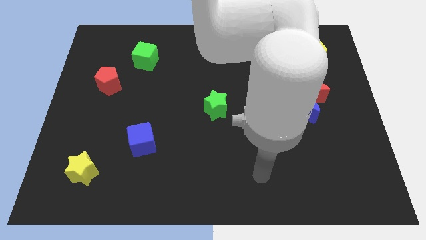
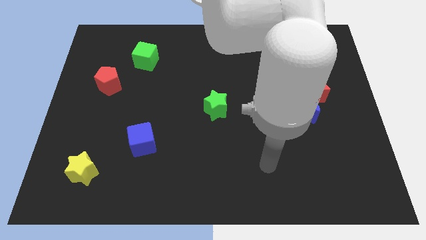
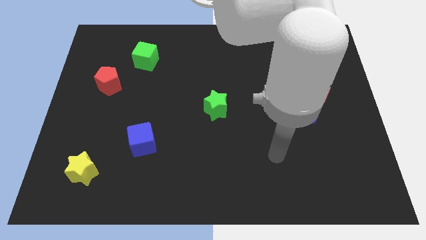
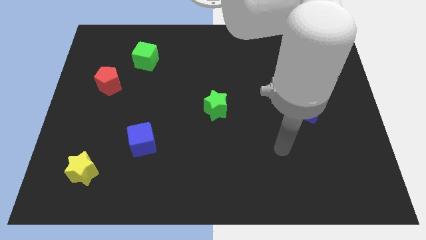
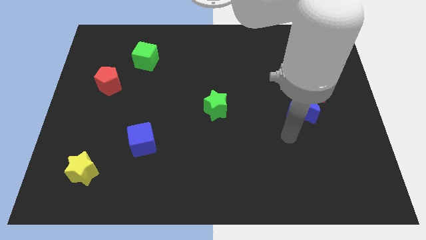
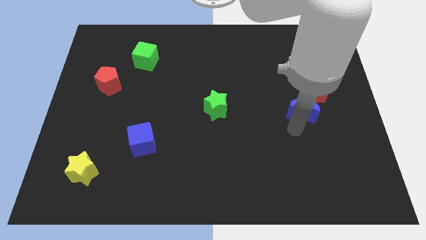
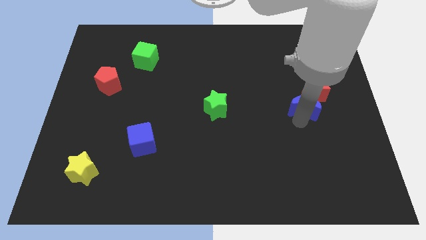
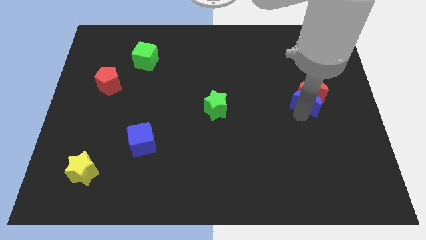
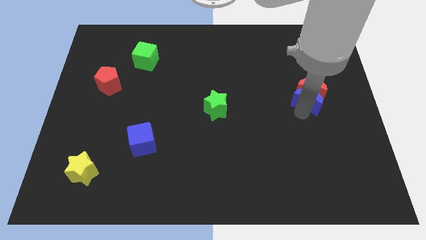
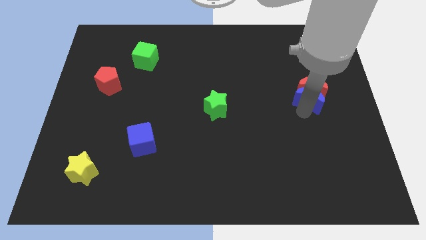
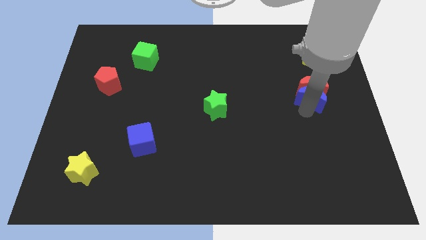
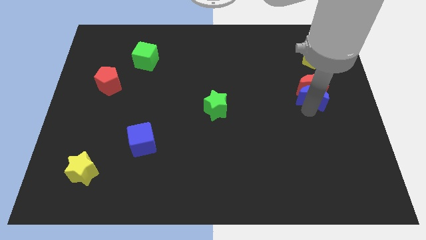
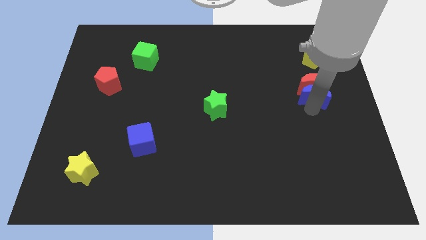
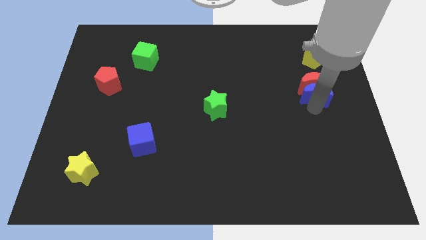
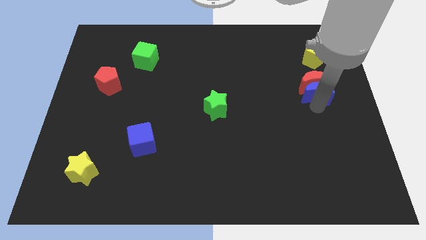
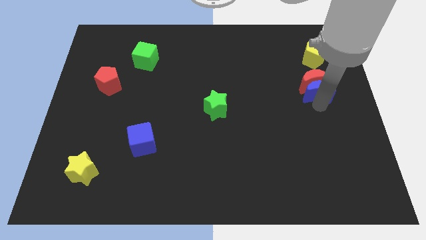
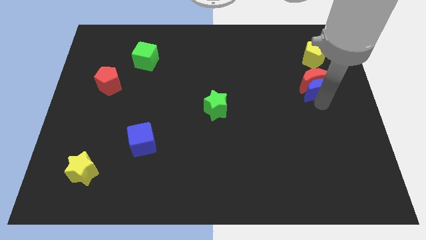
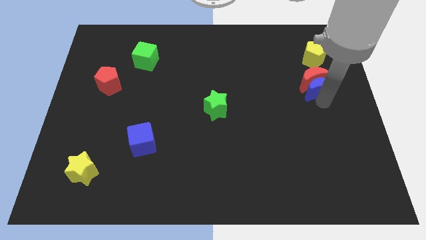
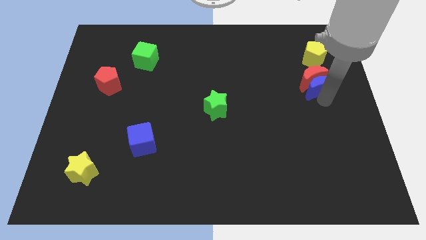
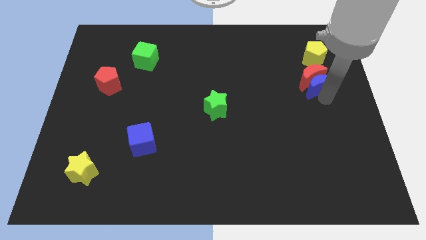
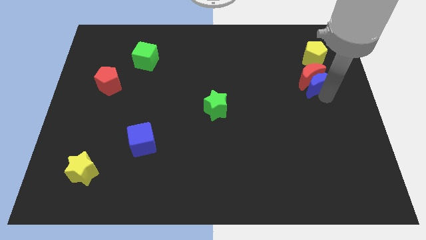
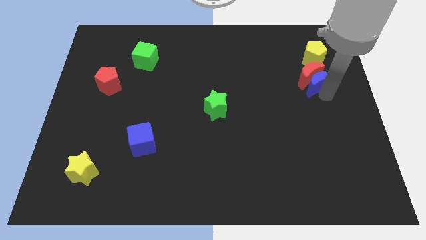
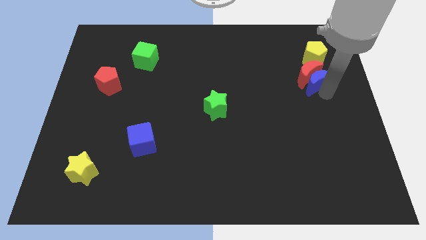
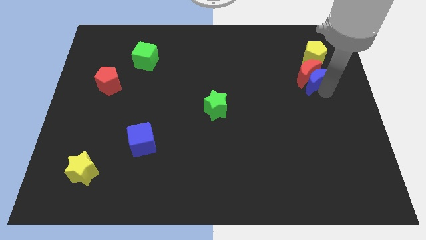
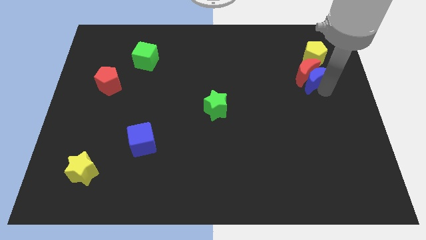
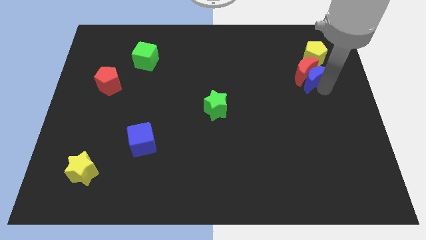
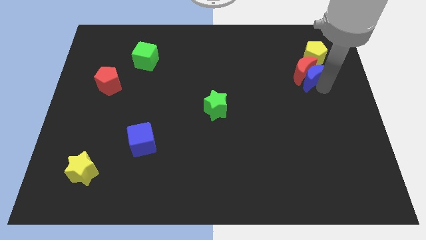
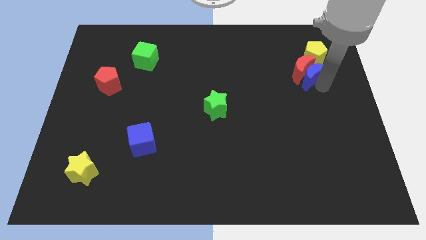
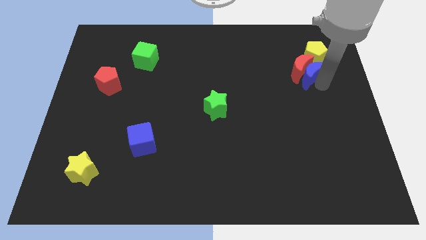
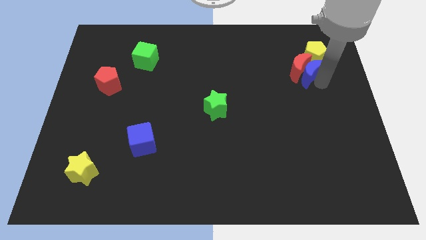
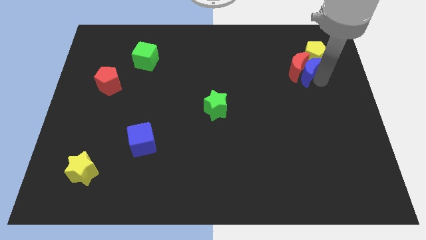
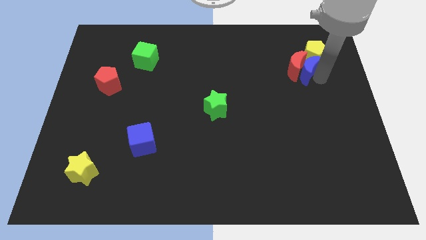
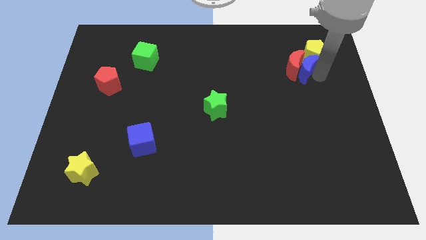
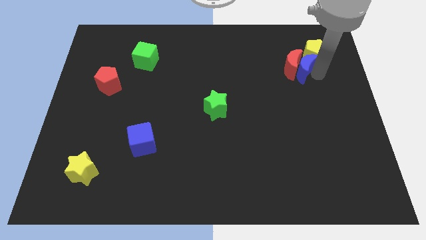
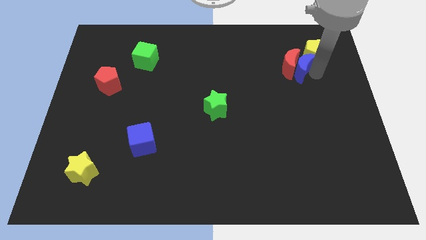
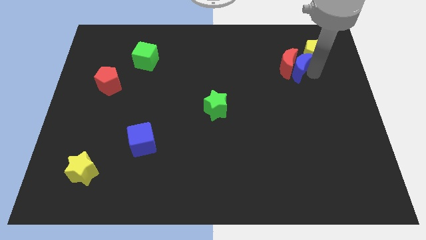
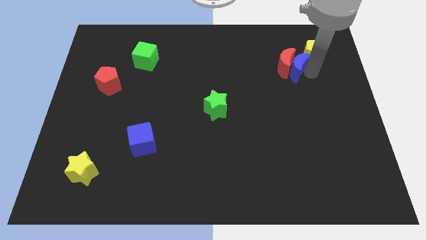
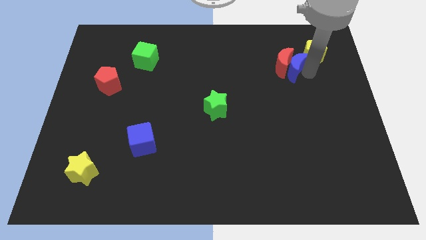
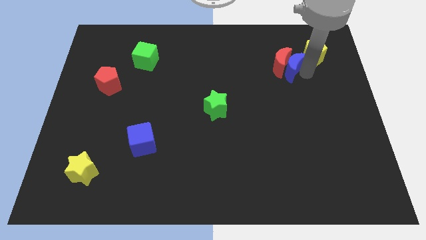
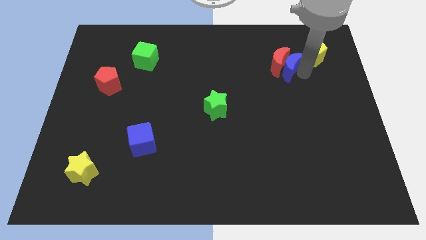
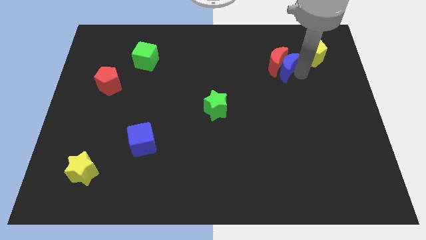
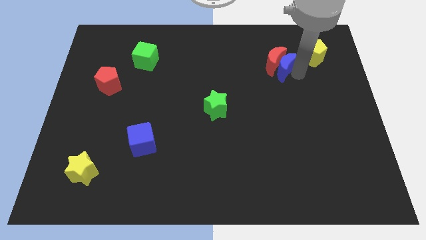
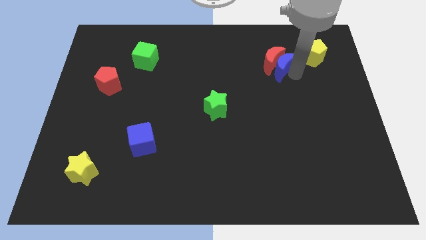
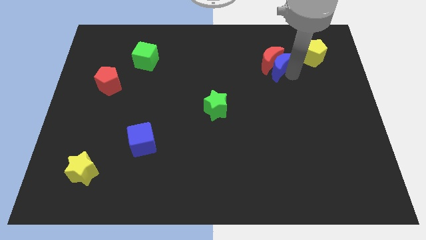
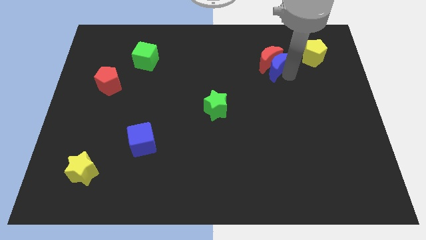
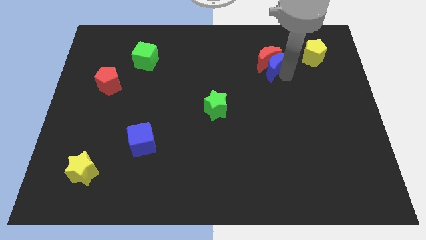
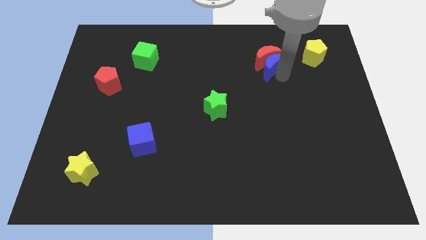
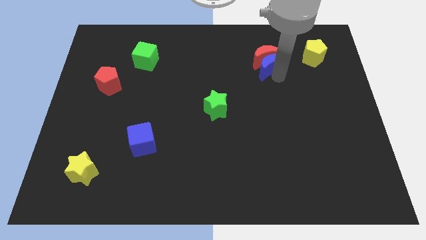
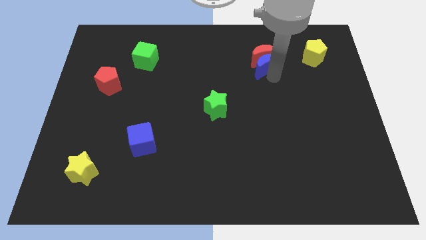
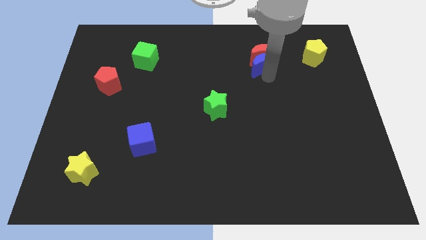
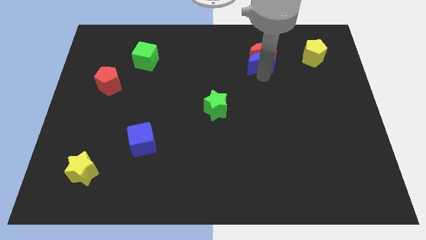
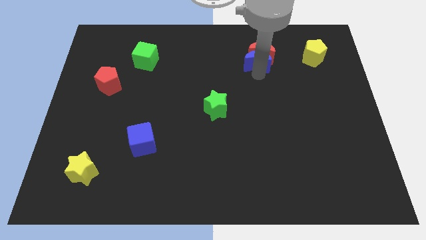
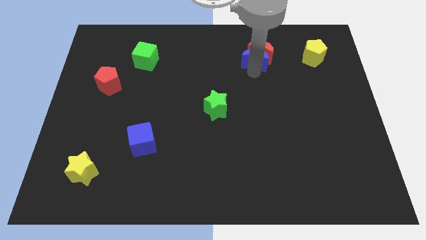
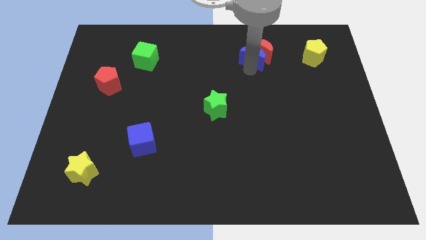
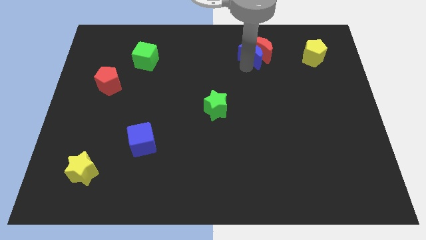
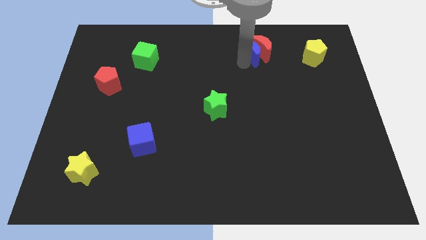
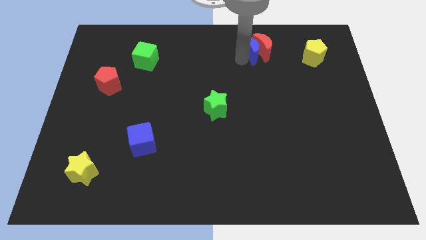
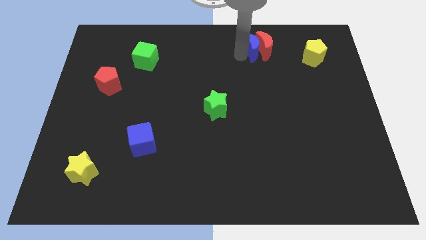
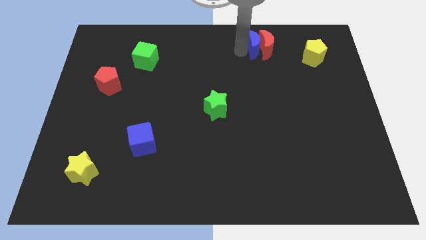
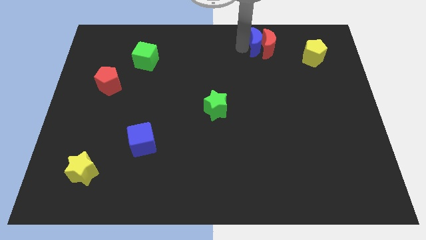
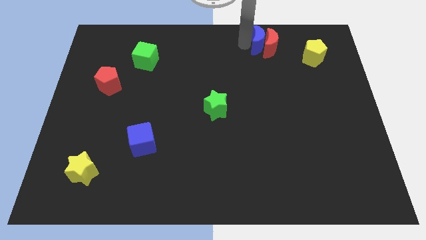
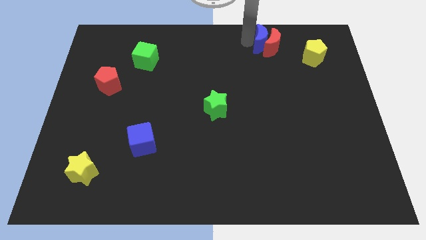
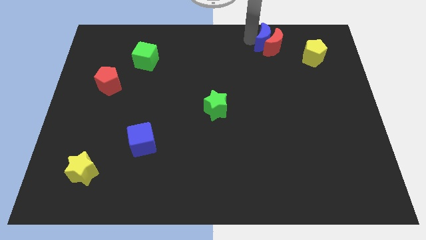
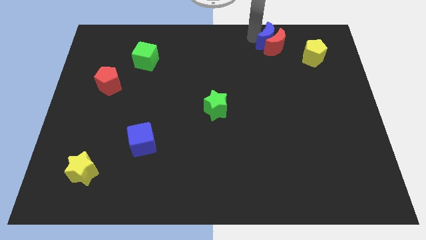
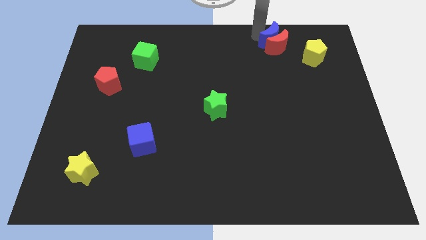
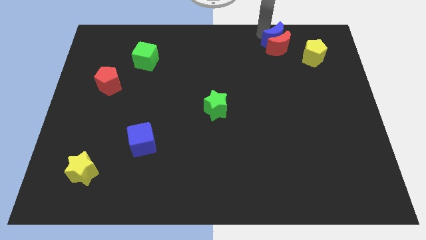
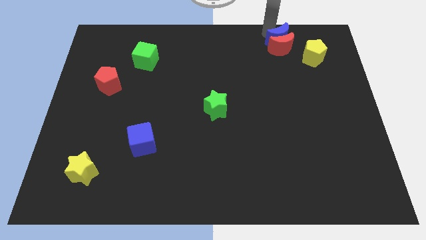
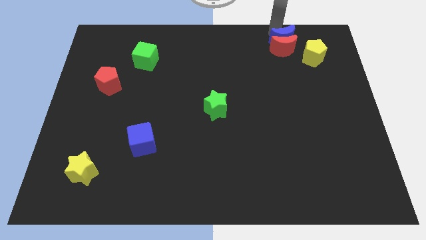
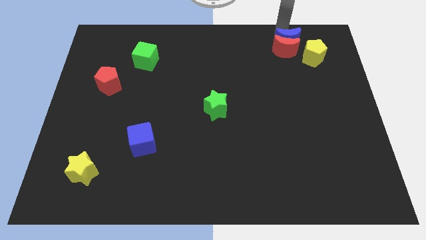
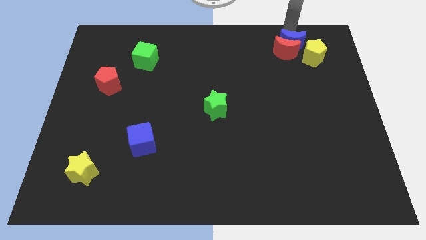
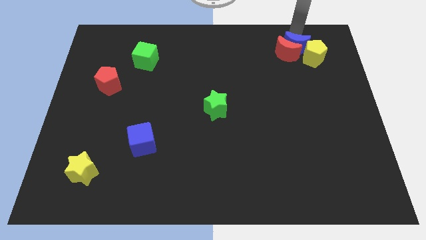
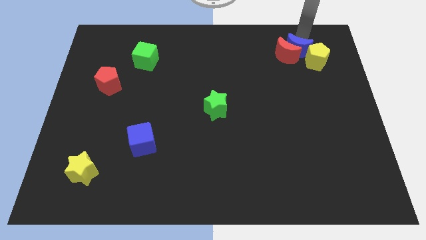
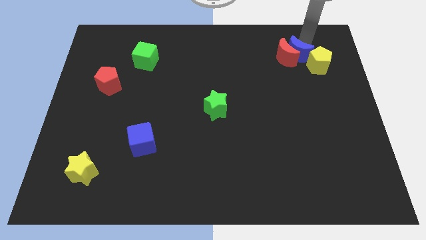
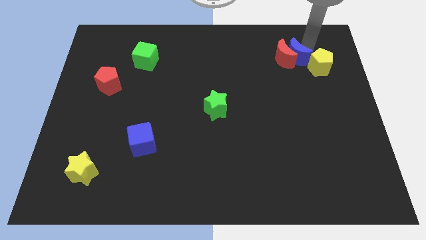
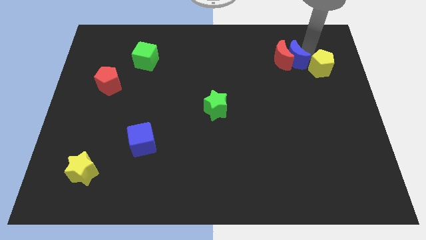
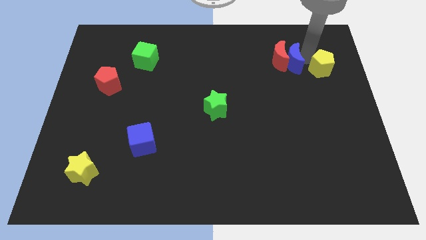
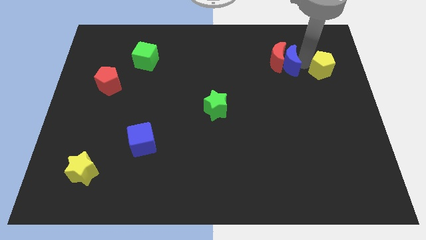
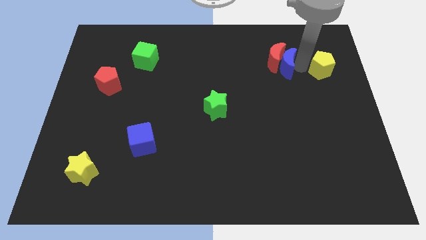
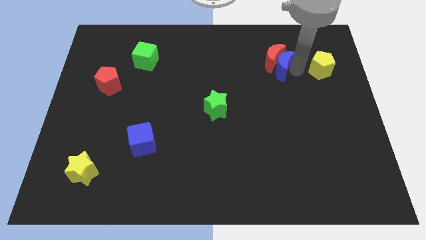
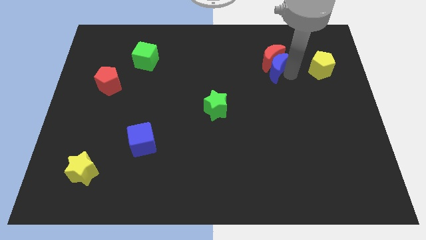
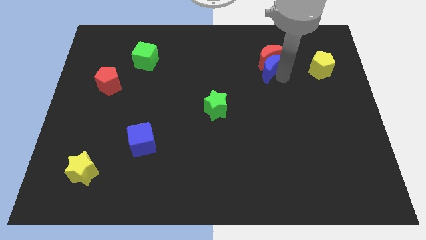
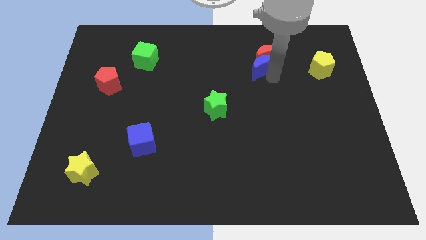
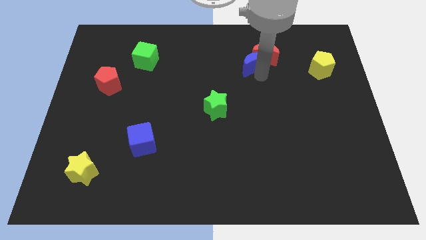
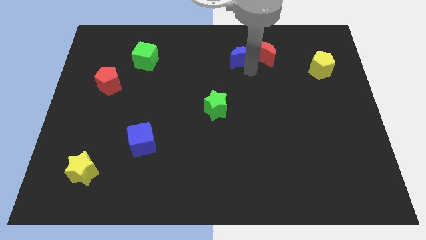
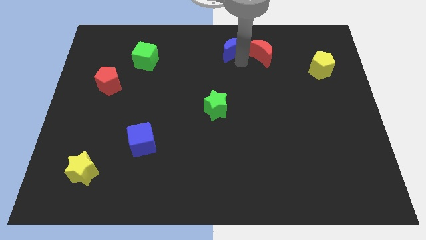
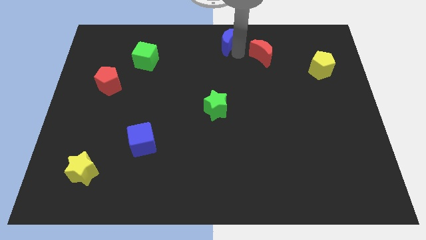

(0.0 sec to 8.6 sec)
pull the red moon apart from the blue moon

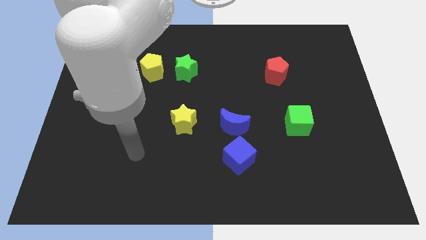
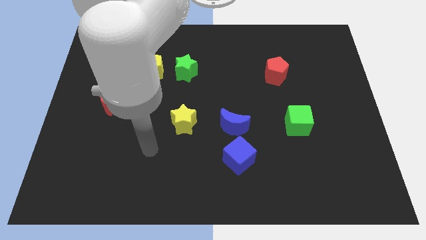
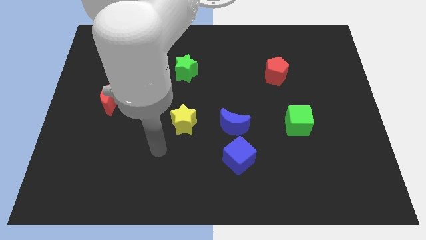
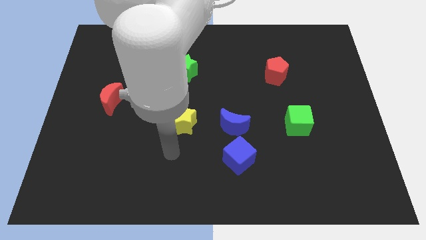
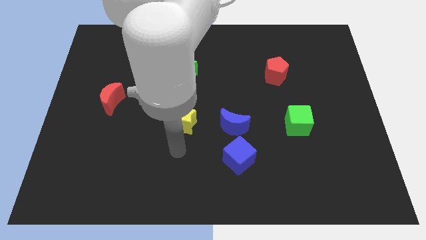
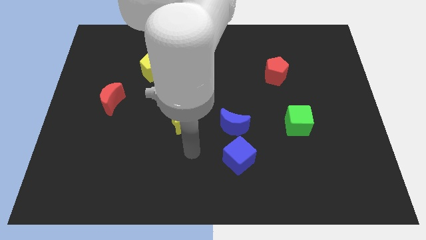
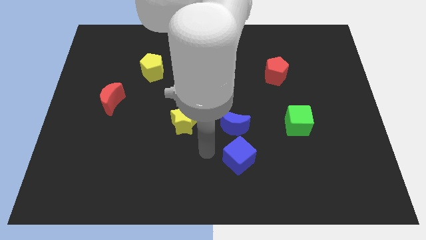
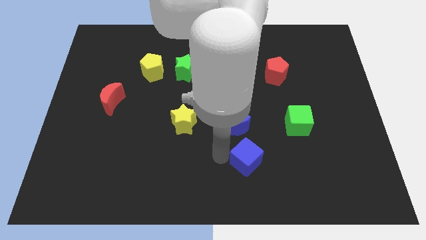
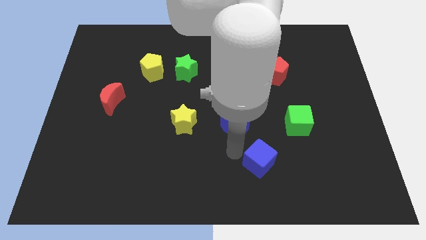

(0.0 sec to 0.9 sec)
separate the blue moon from the blue cube

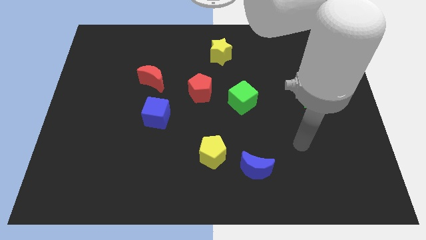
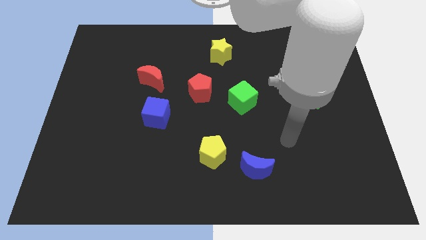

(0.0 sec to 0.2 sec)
separate the blue moon from the yellow pentagon
